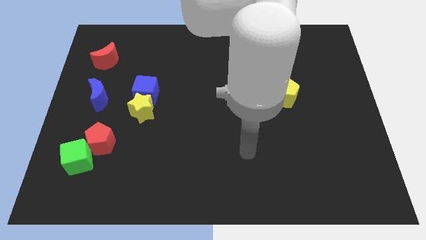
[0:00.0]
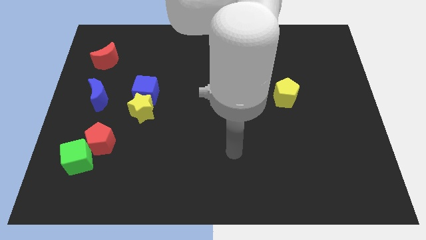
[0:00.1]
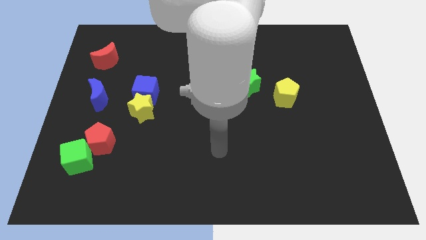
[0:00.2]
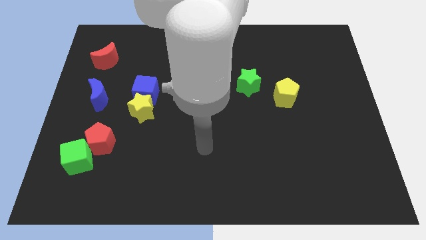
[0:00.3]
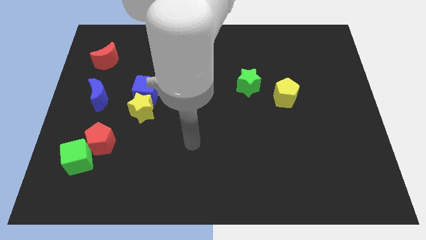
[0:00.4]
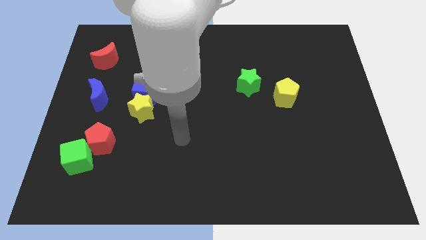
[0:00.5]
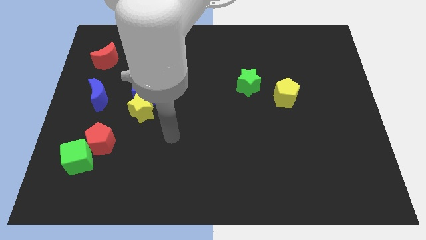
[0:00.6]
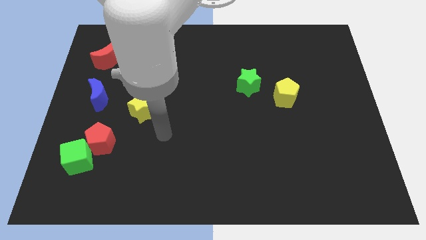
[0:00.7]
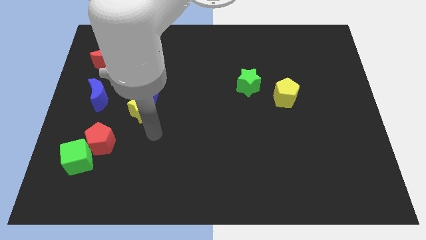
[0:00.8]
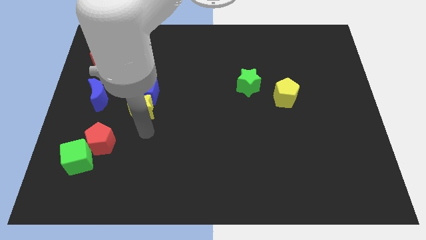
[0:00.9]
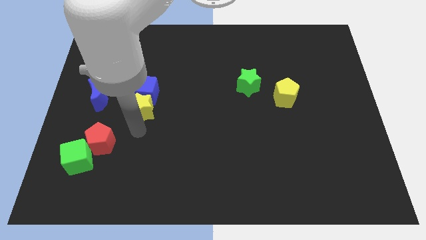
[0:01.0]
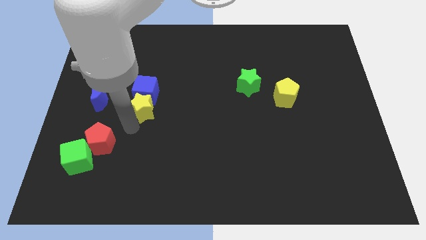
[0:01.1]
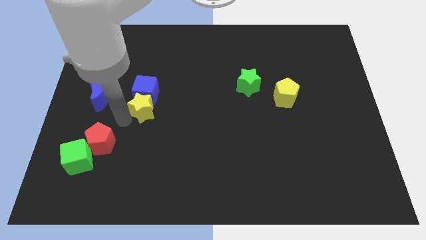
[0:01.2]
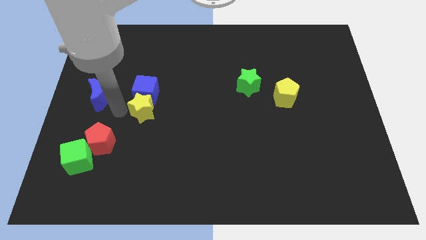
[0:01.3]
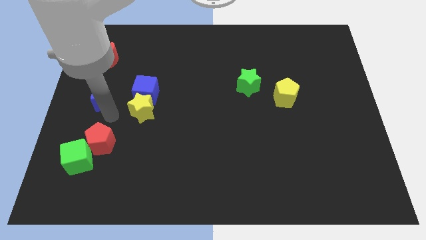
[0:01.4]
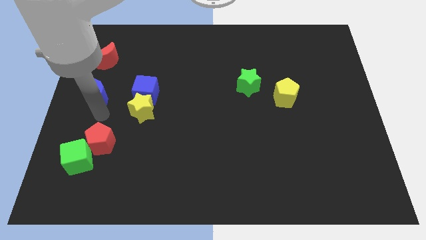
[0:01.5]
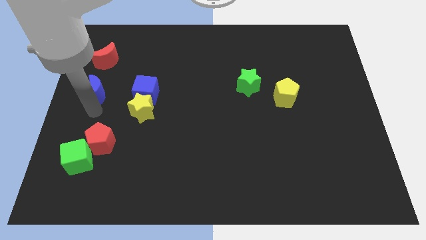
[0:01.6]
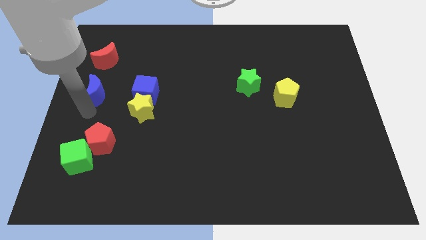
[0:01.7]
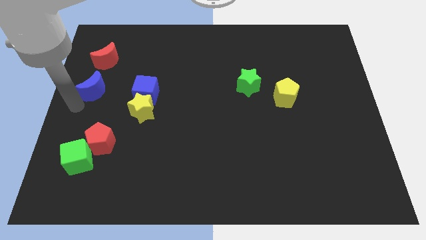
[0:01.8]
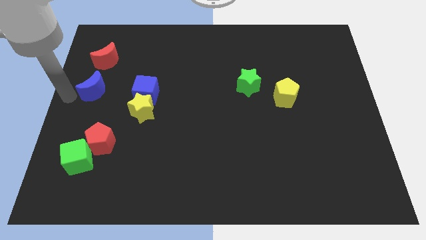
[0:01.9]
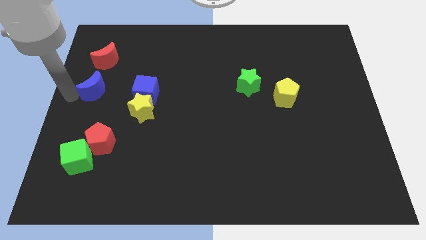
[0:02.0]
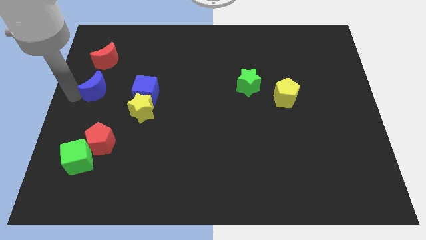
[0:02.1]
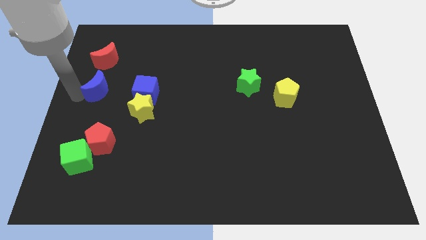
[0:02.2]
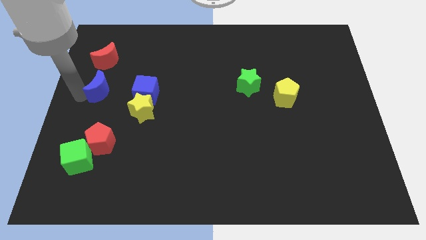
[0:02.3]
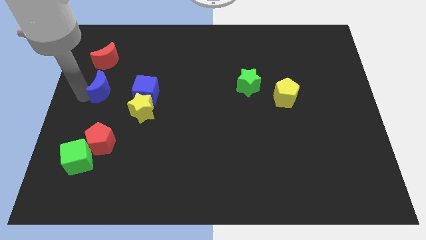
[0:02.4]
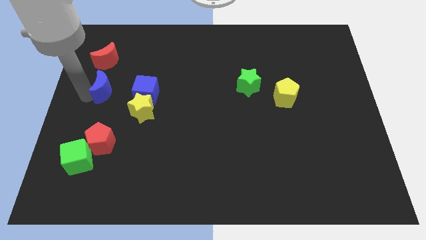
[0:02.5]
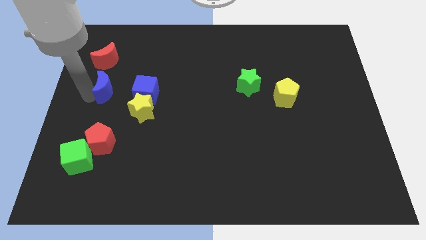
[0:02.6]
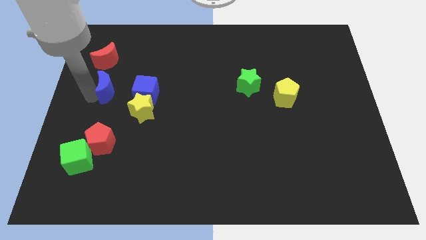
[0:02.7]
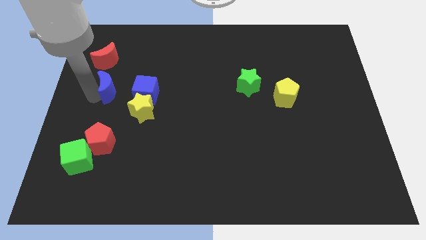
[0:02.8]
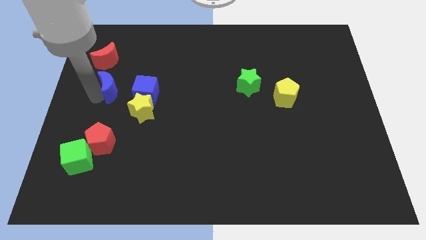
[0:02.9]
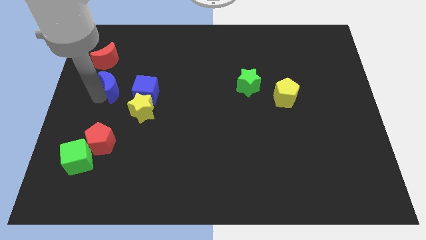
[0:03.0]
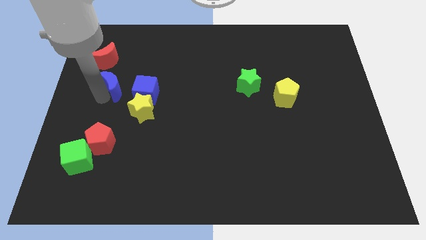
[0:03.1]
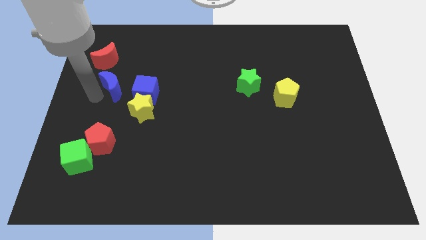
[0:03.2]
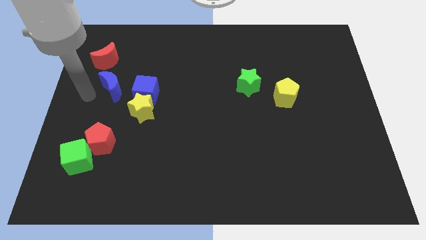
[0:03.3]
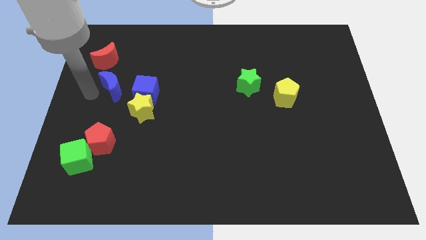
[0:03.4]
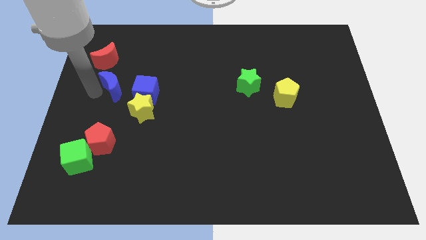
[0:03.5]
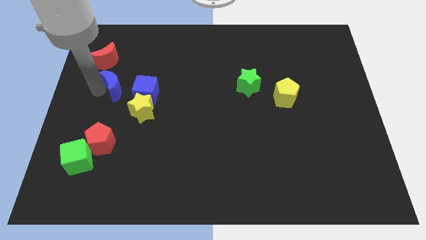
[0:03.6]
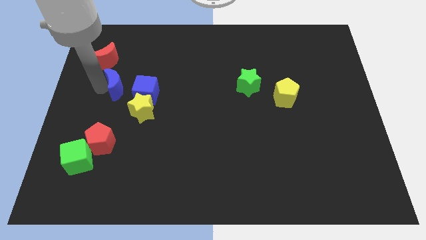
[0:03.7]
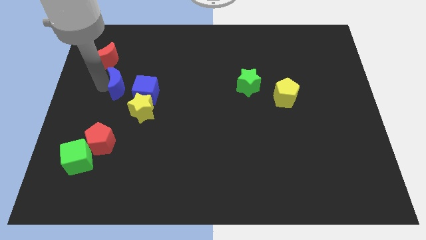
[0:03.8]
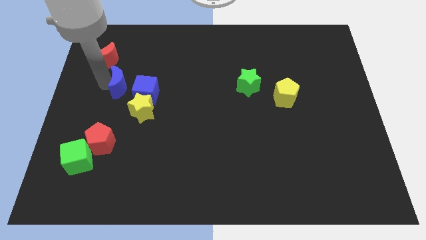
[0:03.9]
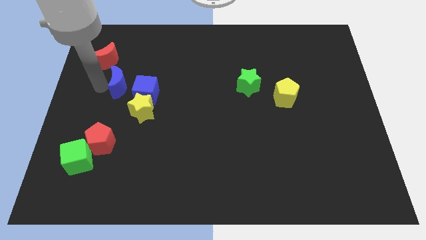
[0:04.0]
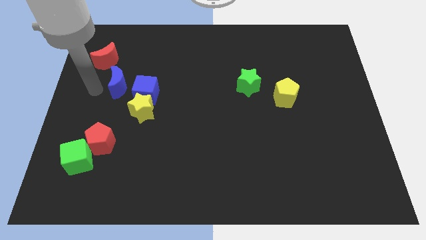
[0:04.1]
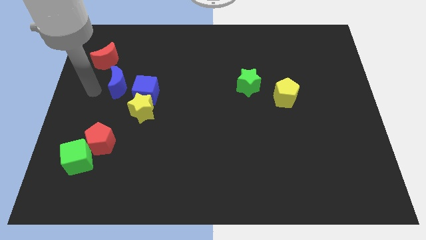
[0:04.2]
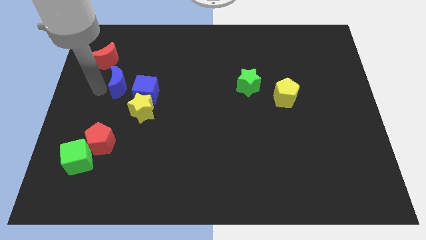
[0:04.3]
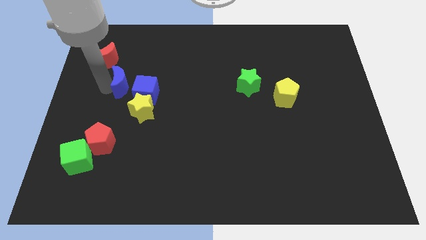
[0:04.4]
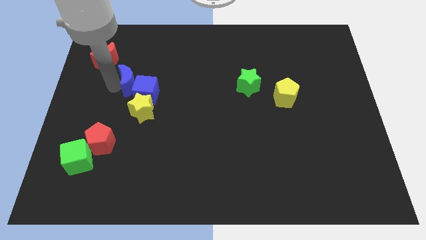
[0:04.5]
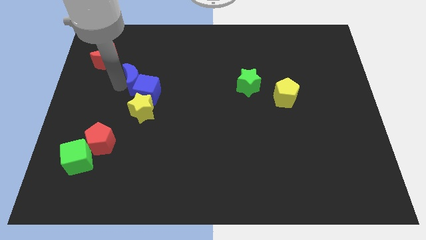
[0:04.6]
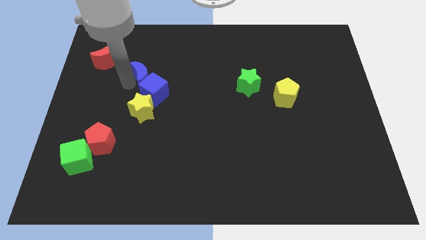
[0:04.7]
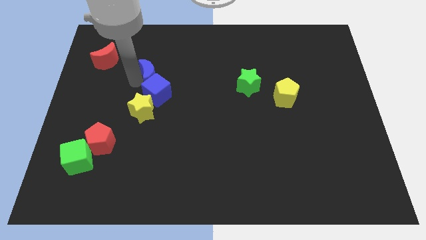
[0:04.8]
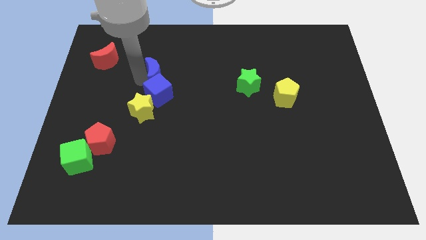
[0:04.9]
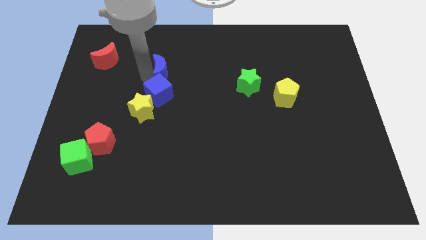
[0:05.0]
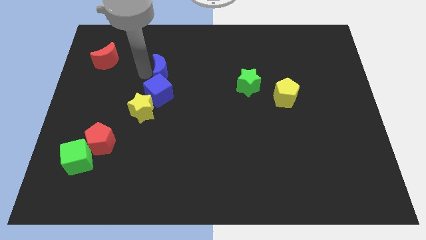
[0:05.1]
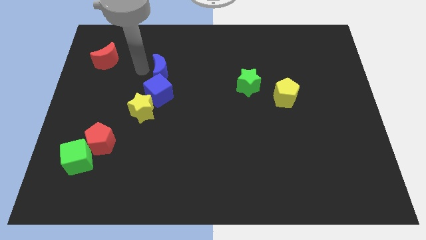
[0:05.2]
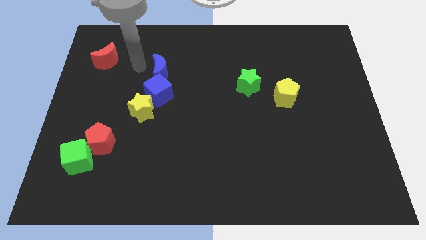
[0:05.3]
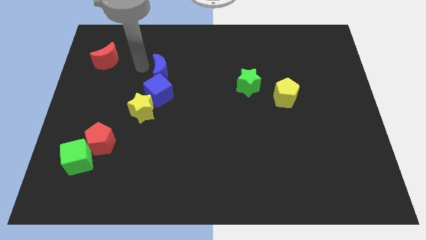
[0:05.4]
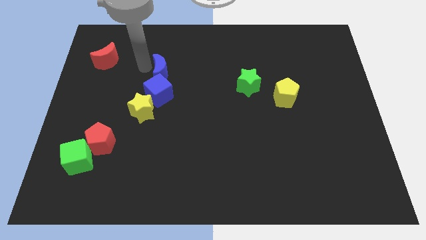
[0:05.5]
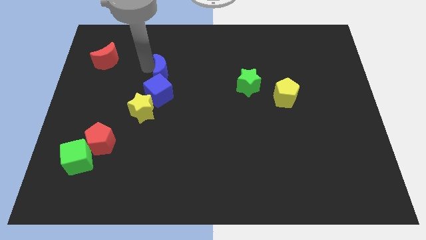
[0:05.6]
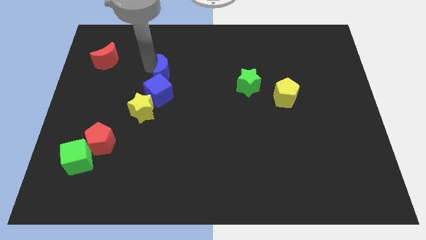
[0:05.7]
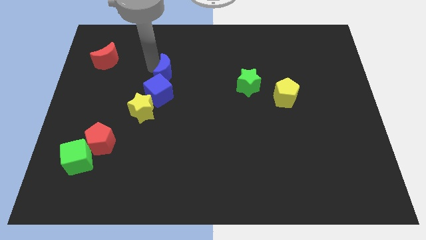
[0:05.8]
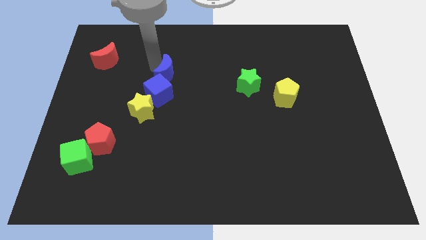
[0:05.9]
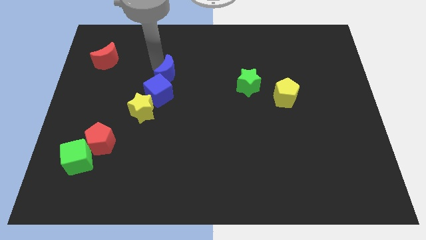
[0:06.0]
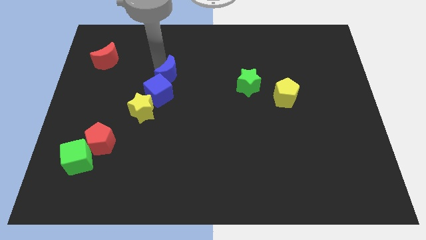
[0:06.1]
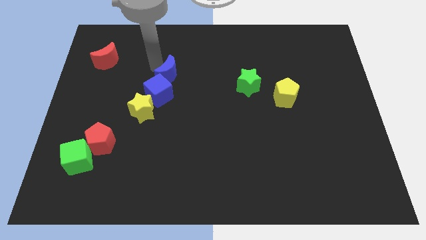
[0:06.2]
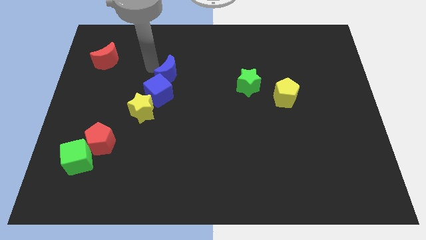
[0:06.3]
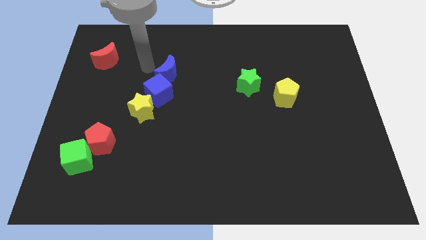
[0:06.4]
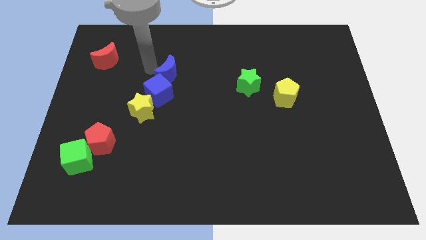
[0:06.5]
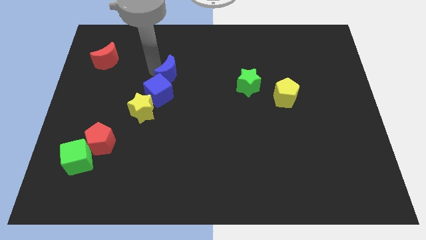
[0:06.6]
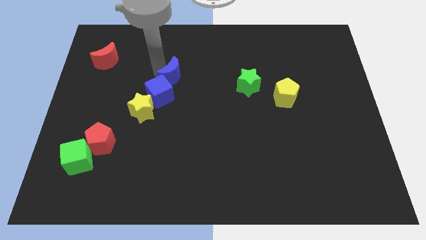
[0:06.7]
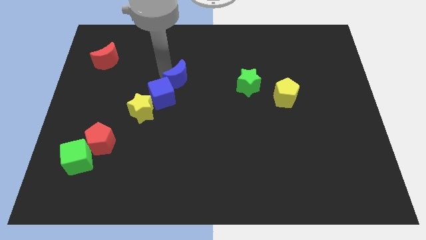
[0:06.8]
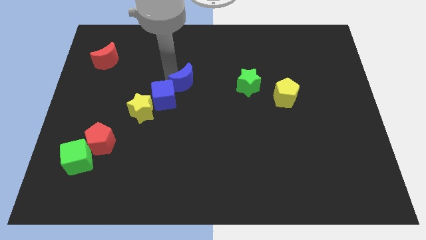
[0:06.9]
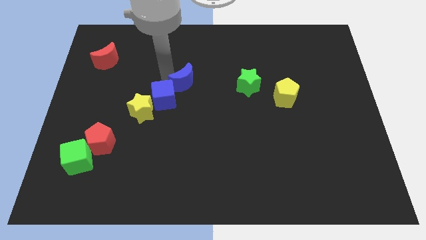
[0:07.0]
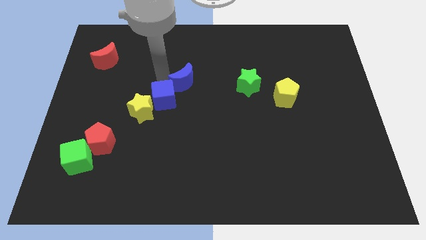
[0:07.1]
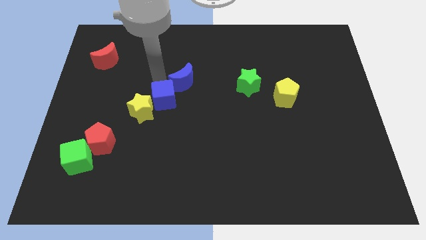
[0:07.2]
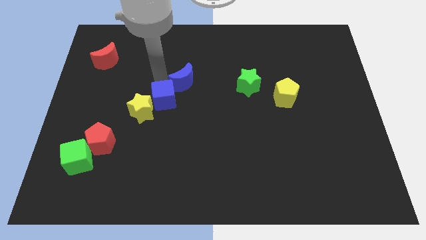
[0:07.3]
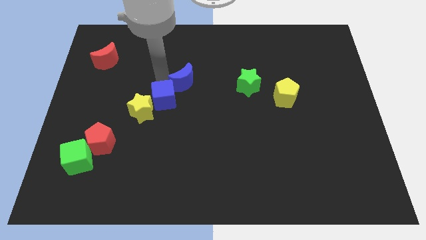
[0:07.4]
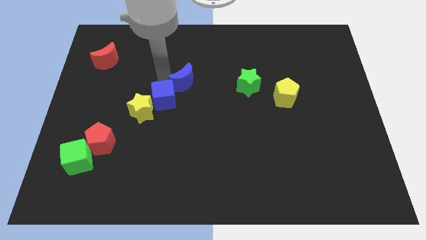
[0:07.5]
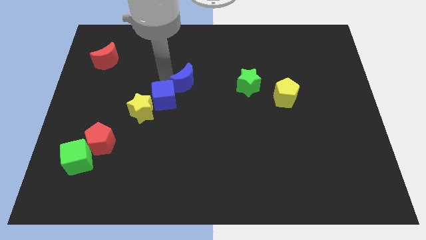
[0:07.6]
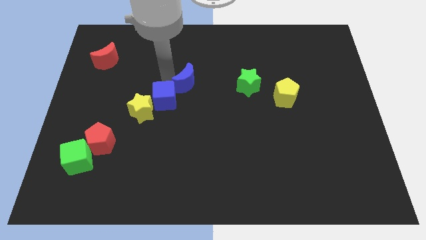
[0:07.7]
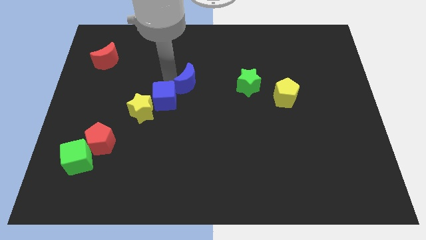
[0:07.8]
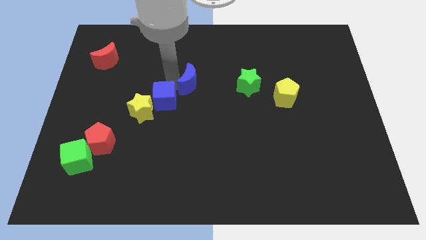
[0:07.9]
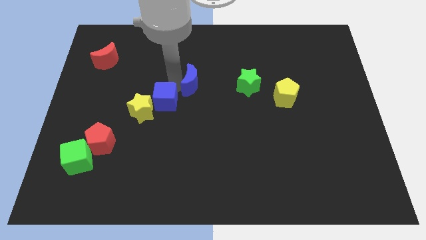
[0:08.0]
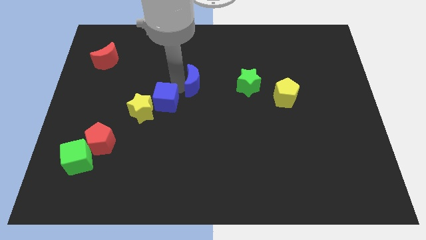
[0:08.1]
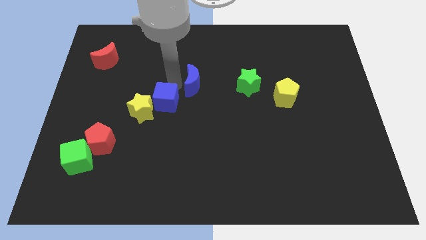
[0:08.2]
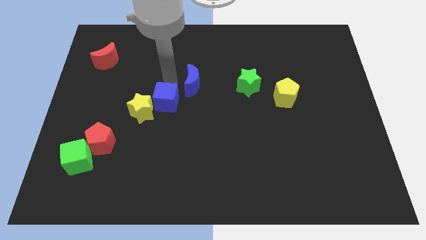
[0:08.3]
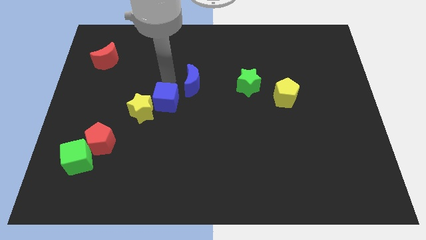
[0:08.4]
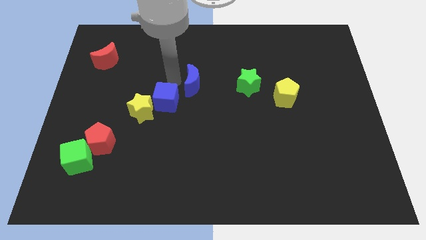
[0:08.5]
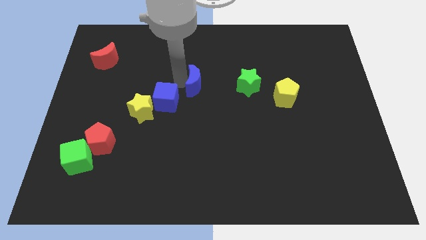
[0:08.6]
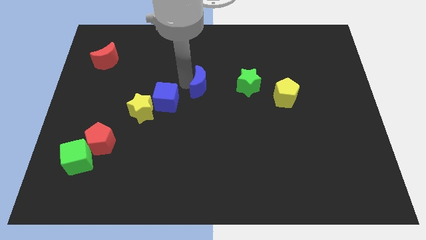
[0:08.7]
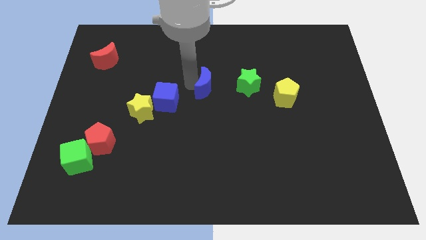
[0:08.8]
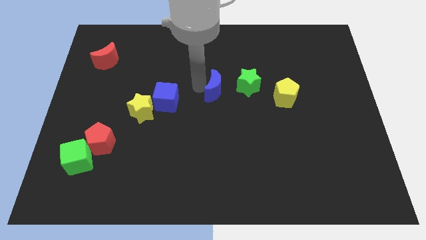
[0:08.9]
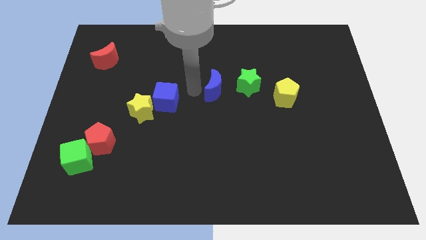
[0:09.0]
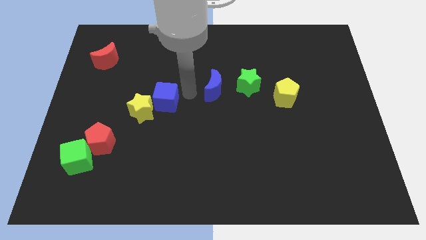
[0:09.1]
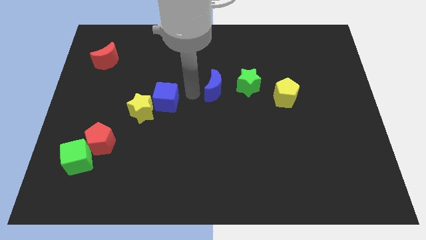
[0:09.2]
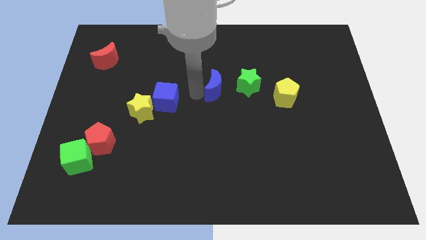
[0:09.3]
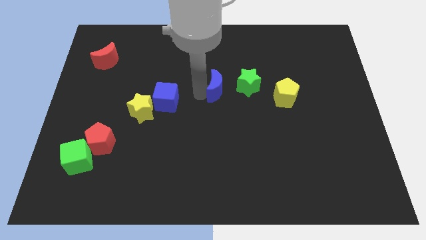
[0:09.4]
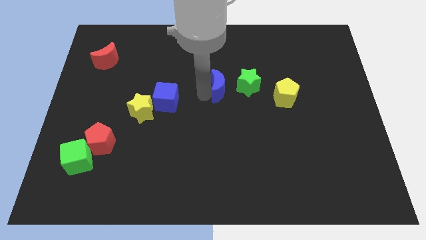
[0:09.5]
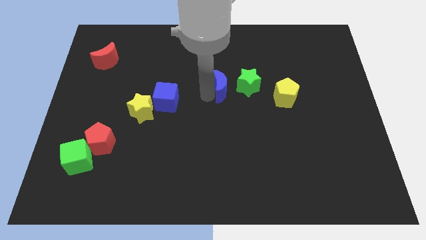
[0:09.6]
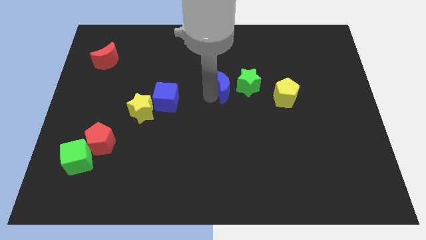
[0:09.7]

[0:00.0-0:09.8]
push the blue moon next to the green star
